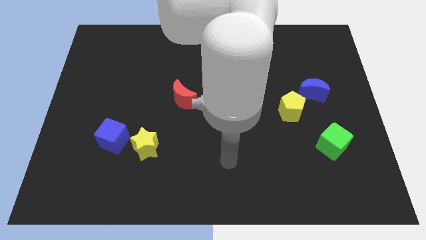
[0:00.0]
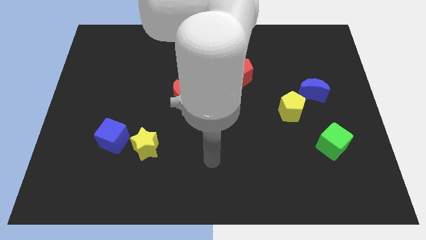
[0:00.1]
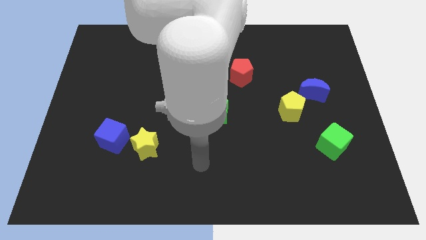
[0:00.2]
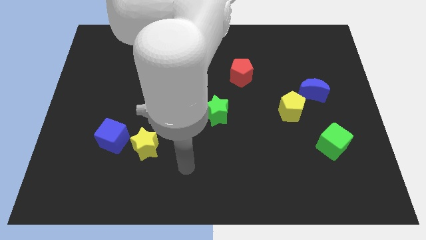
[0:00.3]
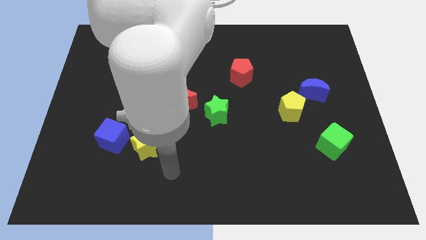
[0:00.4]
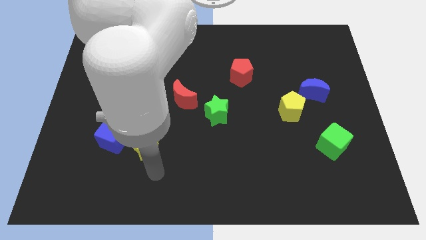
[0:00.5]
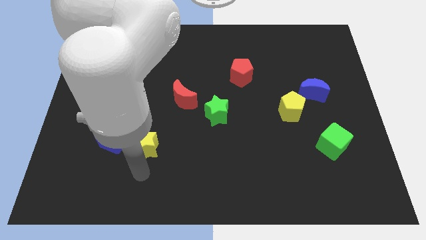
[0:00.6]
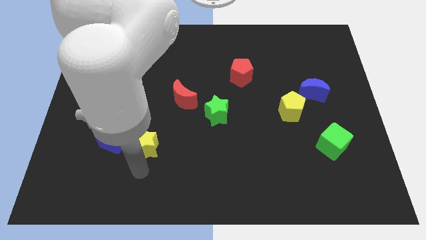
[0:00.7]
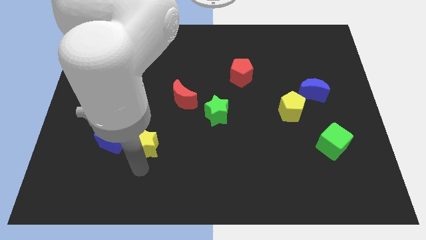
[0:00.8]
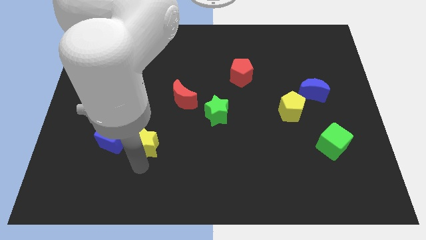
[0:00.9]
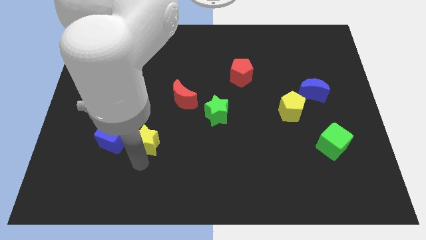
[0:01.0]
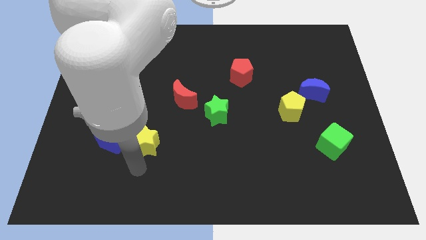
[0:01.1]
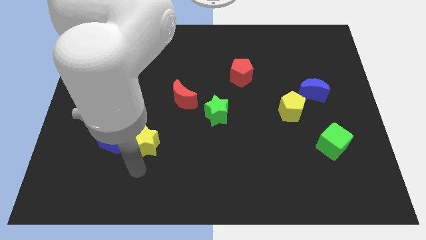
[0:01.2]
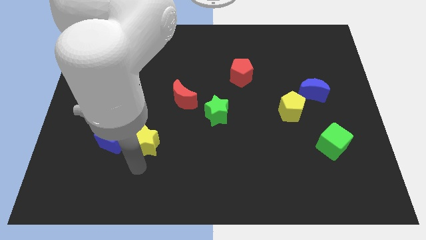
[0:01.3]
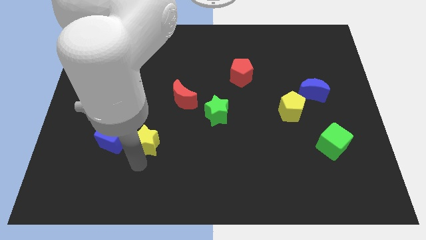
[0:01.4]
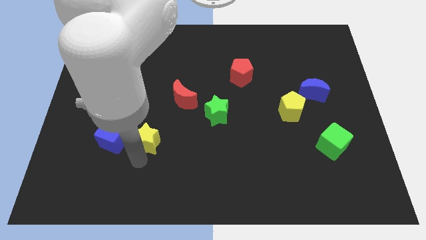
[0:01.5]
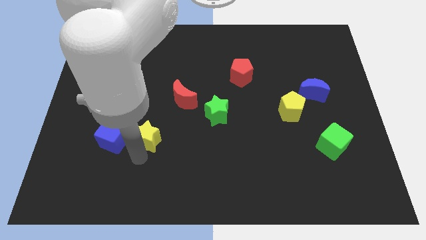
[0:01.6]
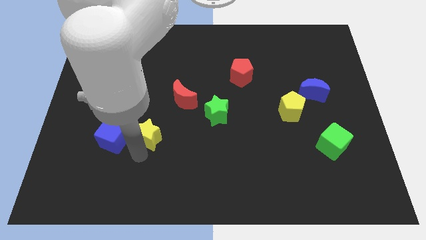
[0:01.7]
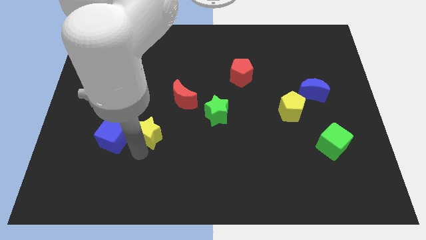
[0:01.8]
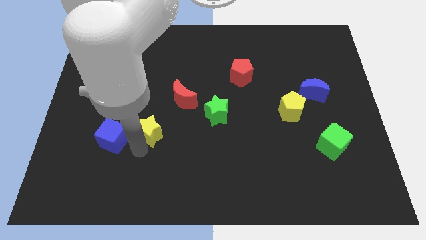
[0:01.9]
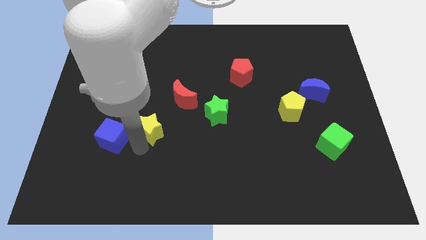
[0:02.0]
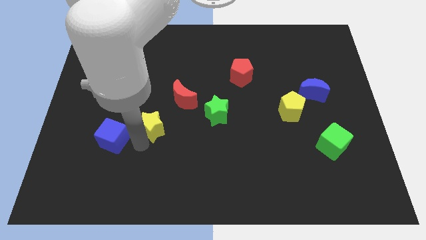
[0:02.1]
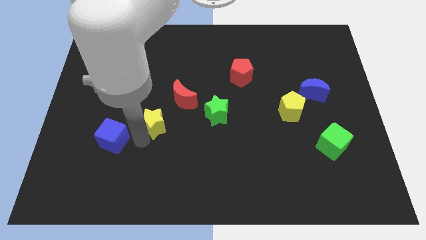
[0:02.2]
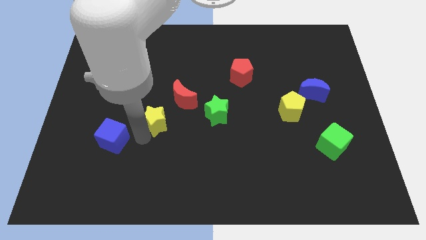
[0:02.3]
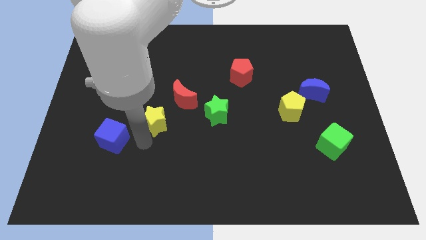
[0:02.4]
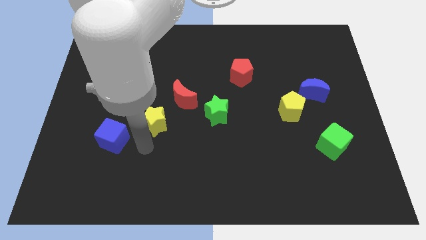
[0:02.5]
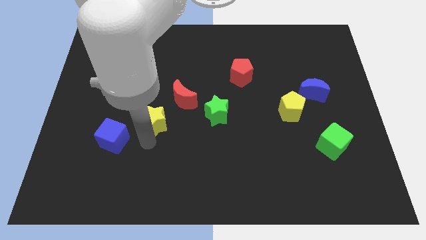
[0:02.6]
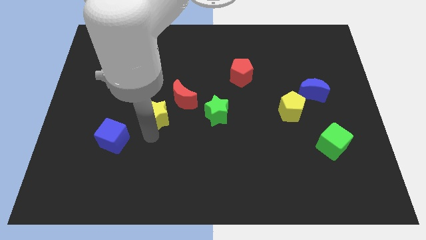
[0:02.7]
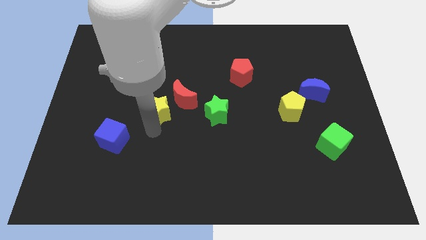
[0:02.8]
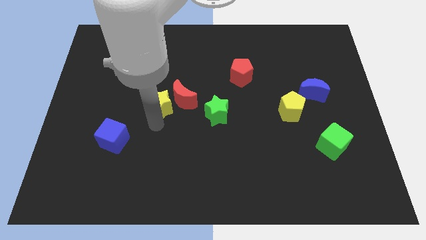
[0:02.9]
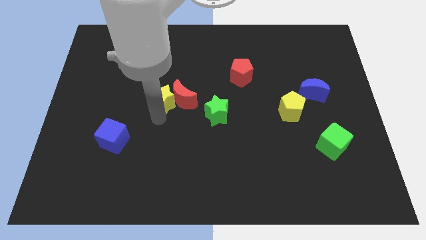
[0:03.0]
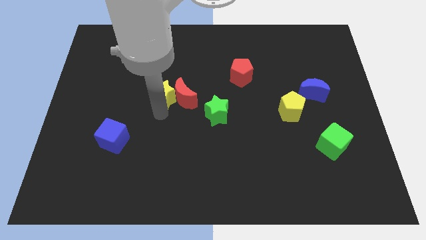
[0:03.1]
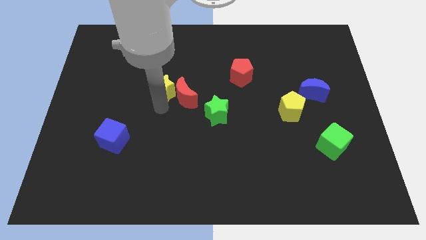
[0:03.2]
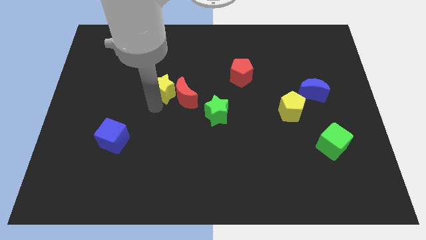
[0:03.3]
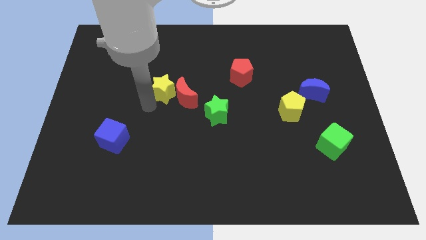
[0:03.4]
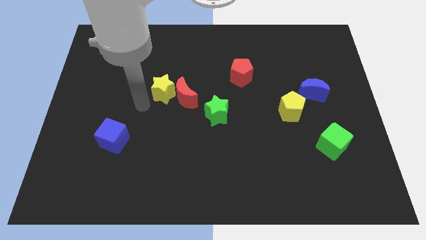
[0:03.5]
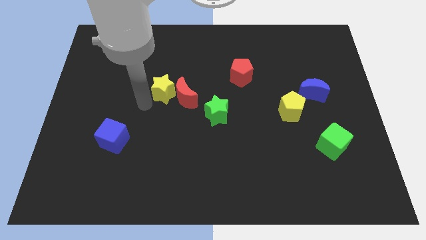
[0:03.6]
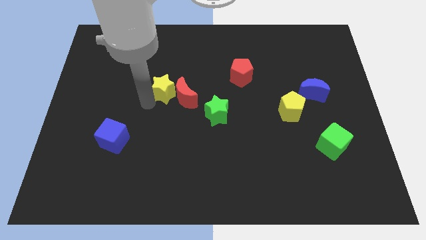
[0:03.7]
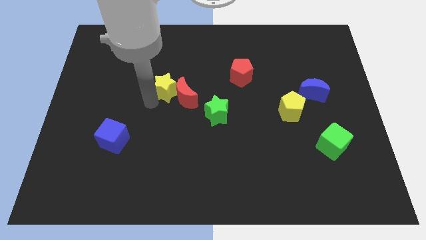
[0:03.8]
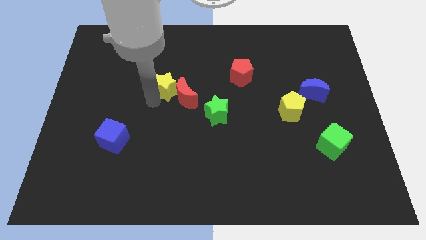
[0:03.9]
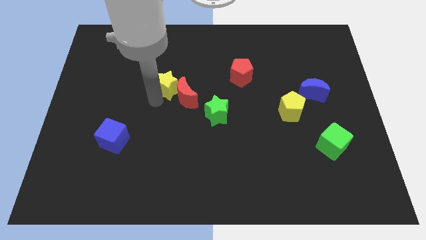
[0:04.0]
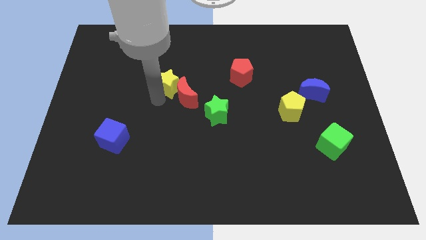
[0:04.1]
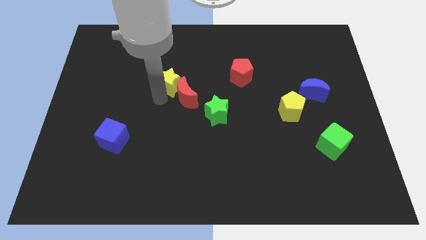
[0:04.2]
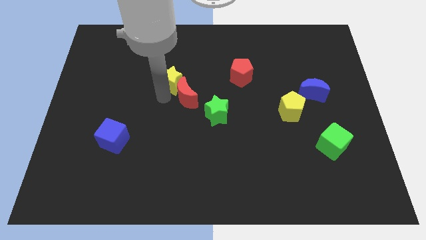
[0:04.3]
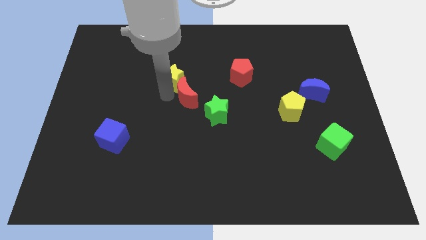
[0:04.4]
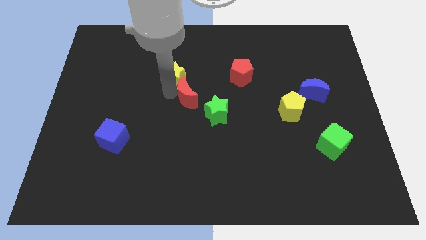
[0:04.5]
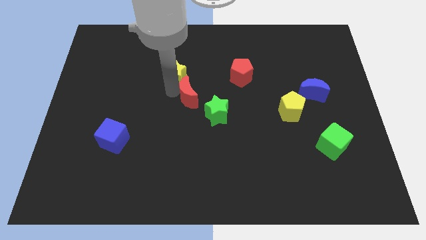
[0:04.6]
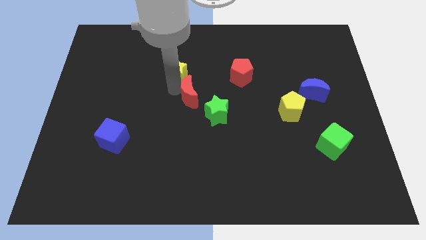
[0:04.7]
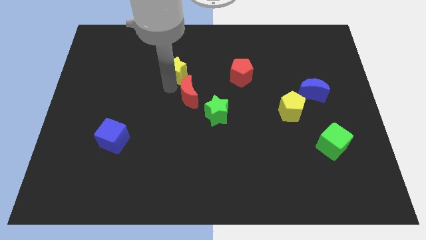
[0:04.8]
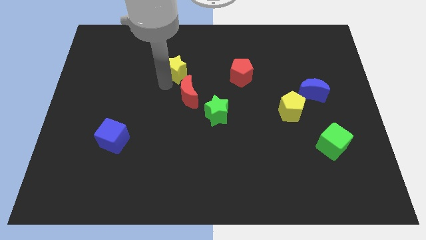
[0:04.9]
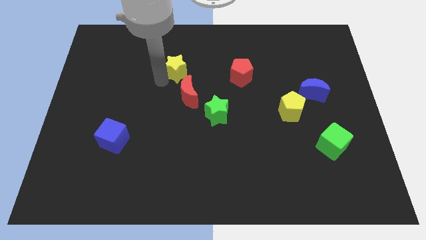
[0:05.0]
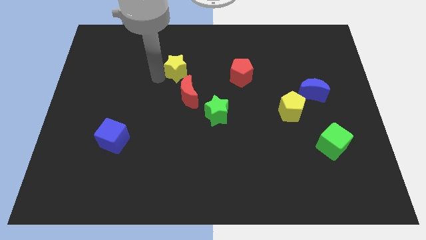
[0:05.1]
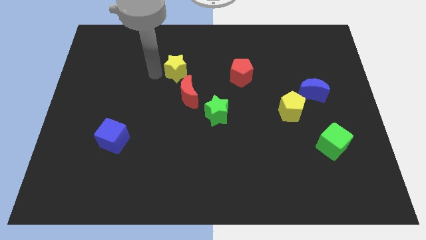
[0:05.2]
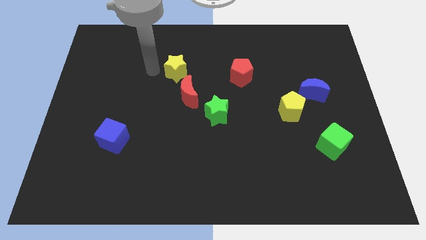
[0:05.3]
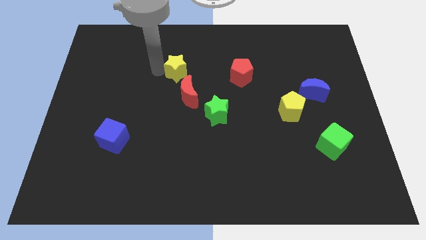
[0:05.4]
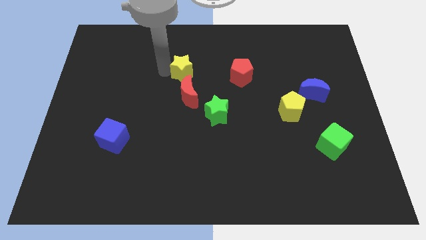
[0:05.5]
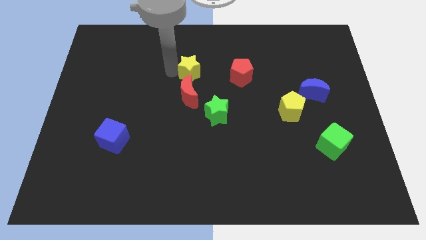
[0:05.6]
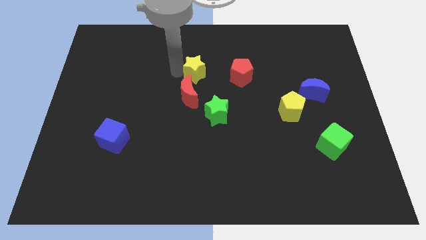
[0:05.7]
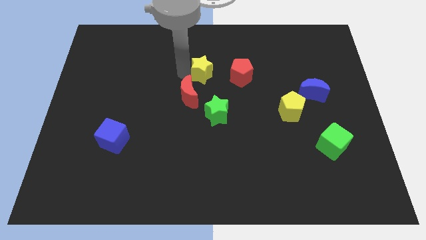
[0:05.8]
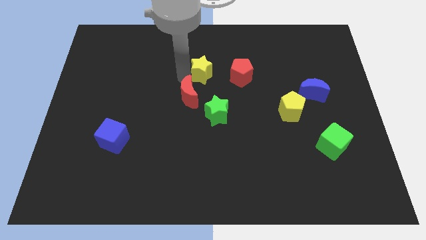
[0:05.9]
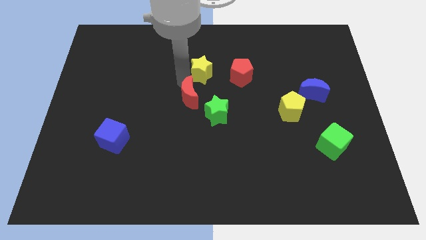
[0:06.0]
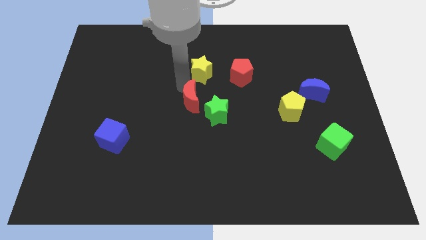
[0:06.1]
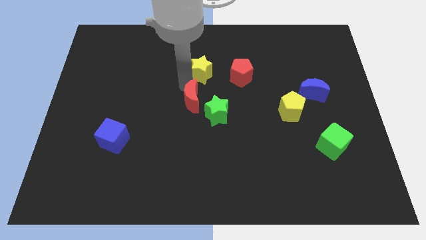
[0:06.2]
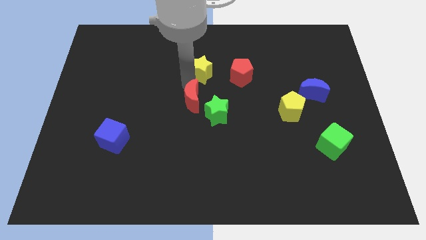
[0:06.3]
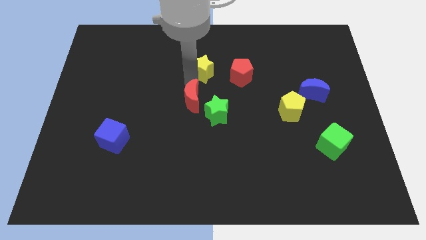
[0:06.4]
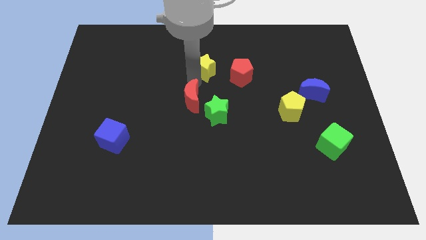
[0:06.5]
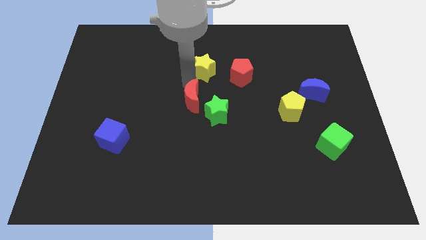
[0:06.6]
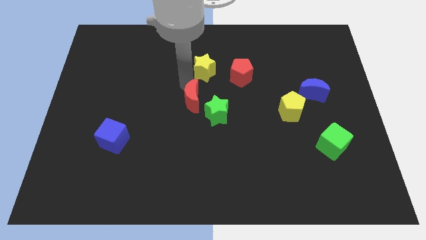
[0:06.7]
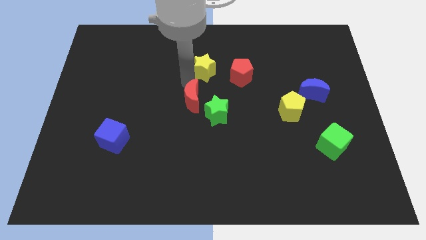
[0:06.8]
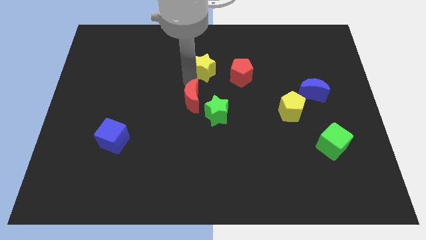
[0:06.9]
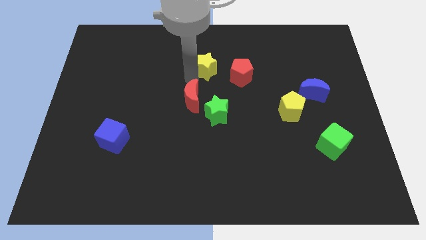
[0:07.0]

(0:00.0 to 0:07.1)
move the yellow star diagonally up and to the left of the red pentagon

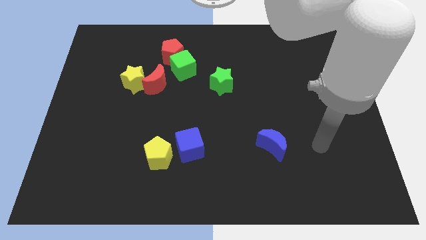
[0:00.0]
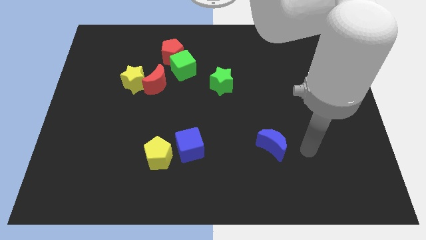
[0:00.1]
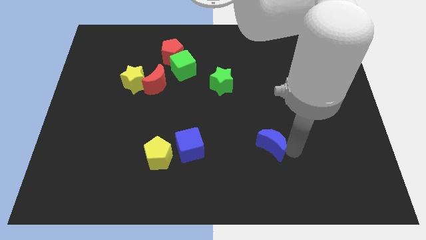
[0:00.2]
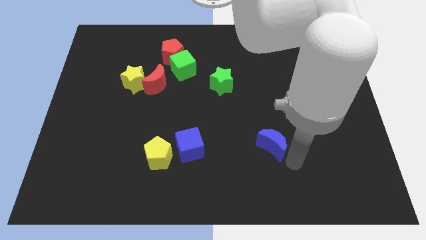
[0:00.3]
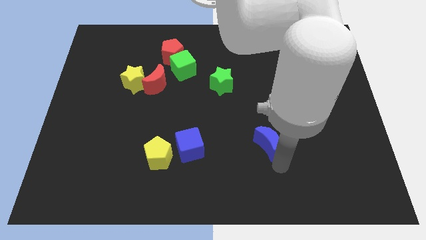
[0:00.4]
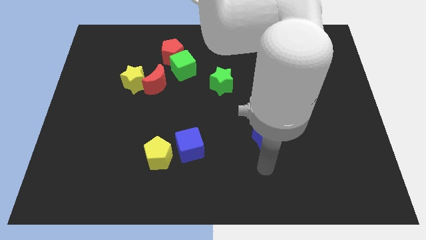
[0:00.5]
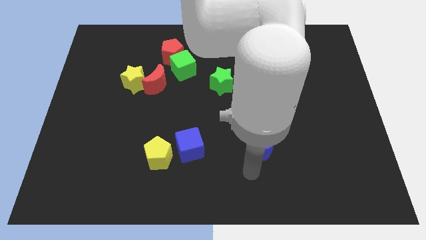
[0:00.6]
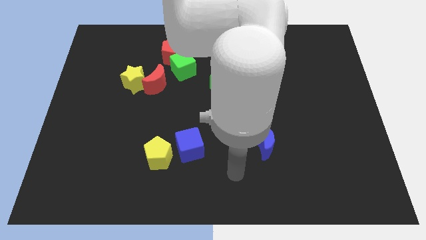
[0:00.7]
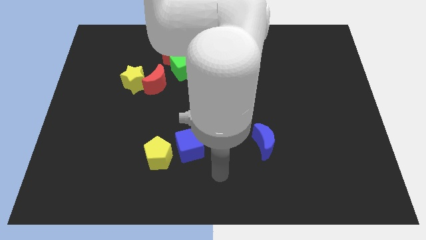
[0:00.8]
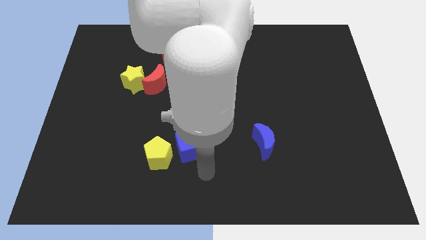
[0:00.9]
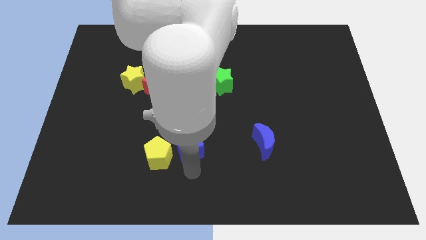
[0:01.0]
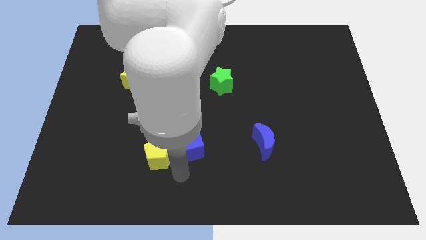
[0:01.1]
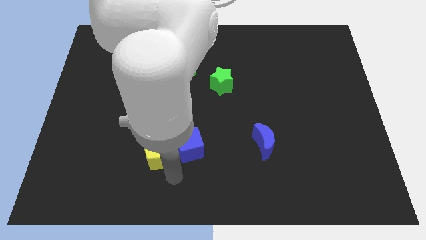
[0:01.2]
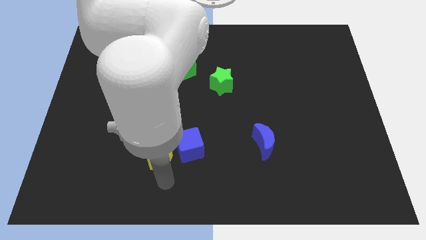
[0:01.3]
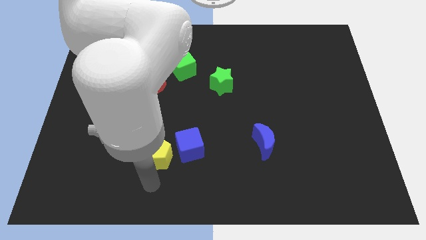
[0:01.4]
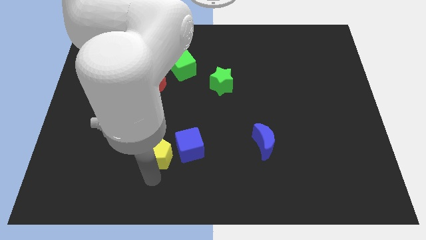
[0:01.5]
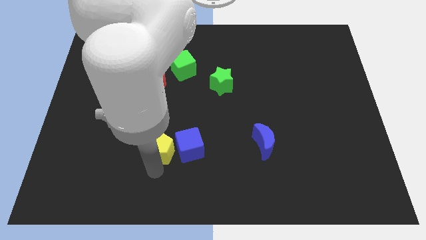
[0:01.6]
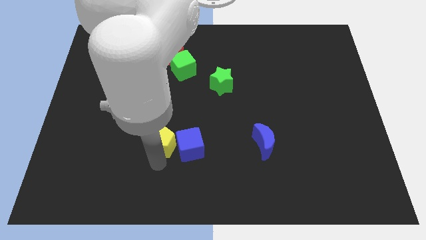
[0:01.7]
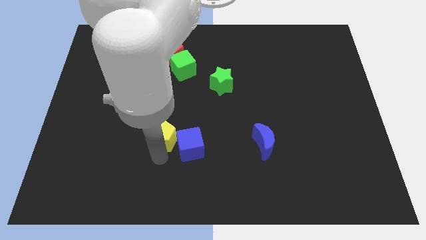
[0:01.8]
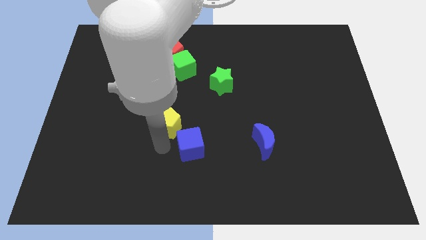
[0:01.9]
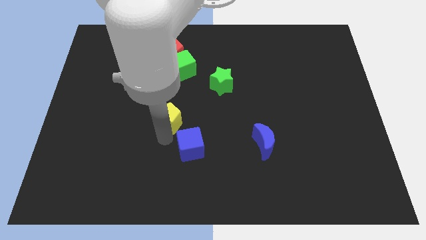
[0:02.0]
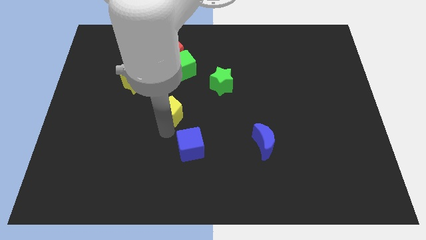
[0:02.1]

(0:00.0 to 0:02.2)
slide the yellow pentagon to the bottom of the green cube
